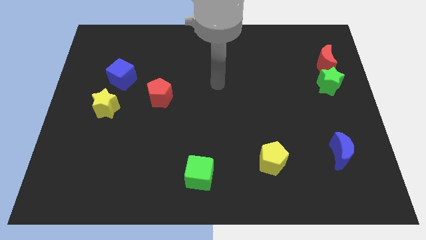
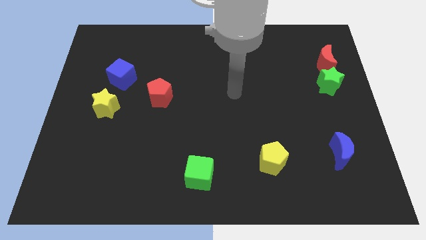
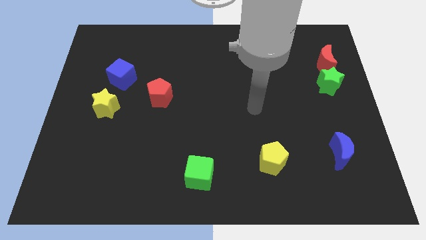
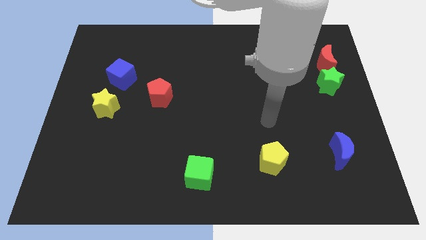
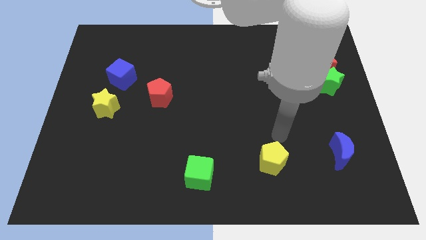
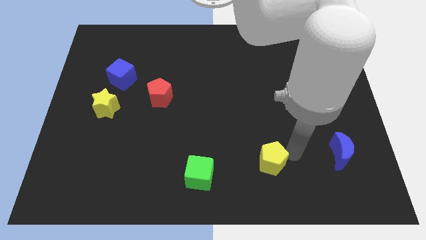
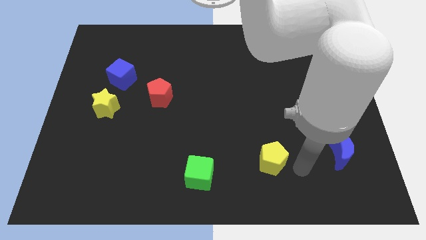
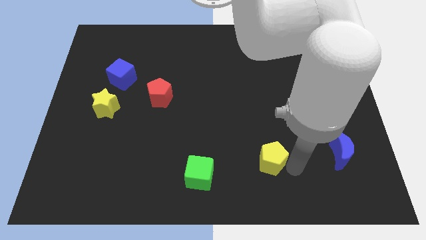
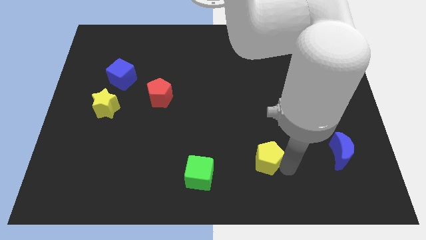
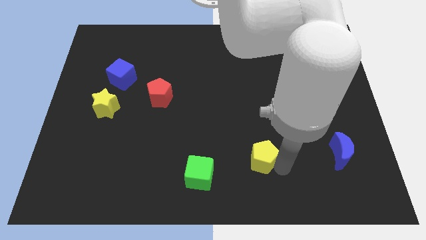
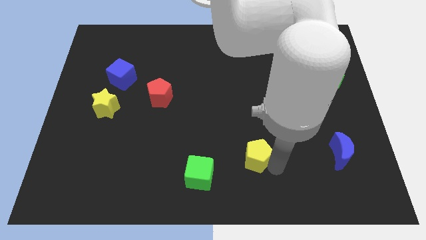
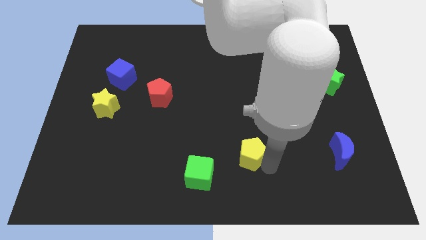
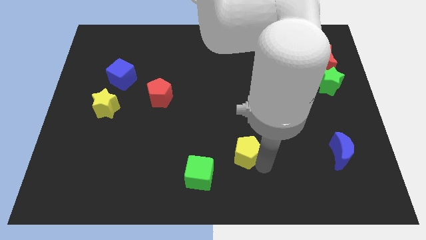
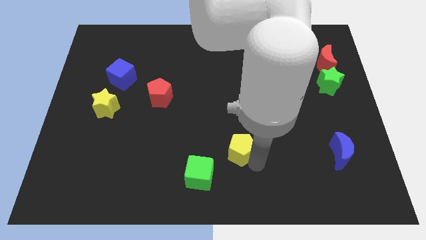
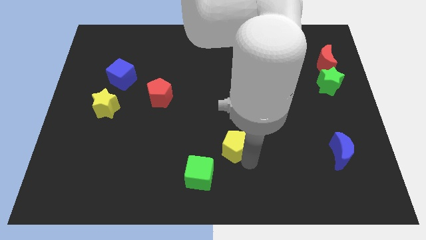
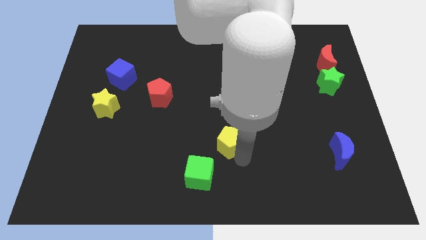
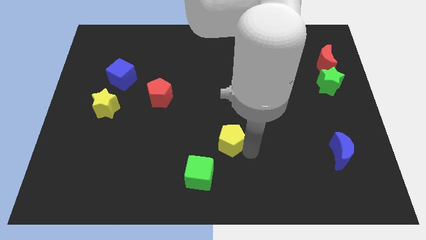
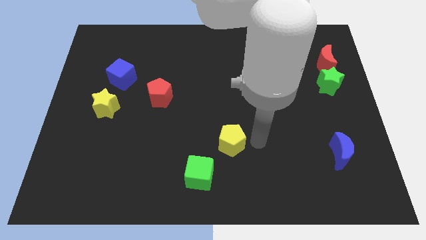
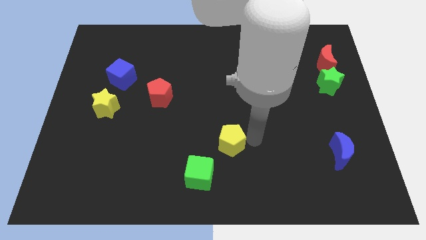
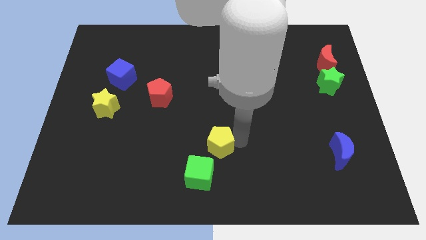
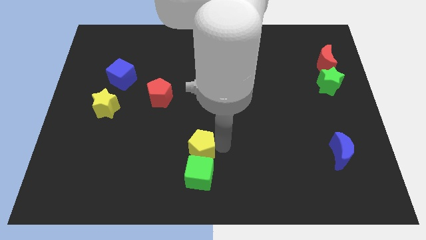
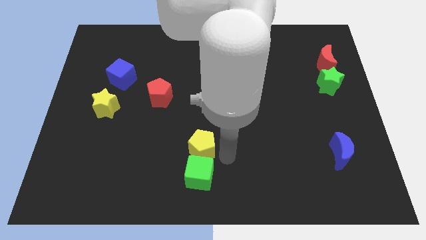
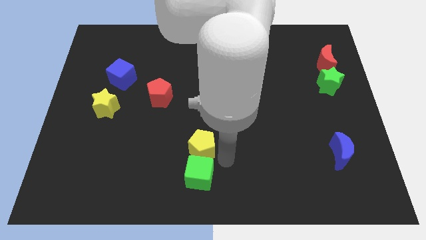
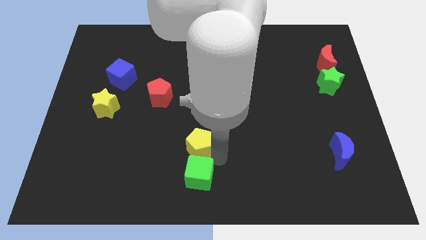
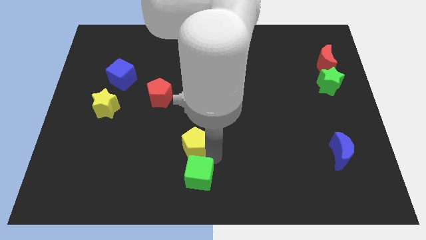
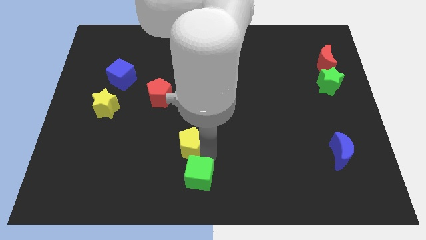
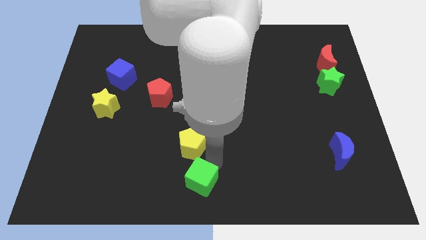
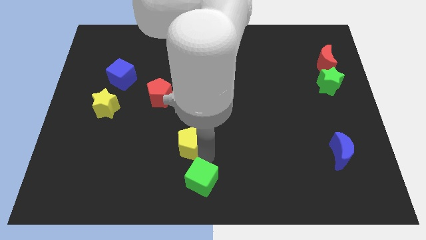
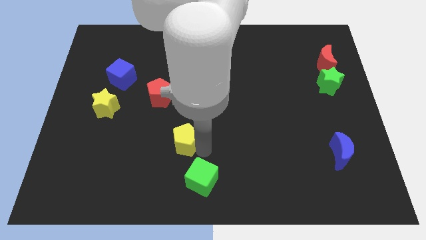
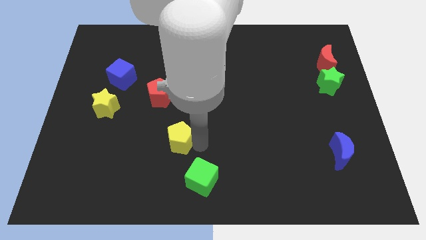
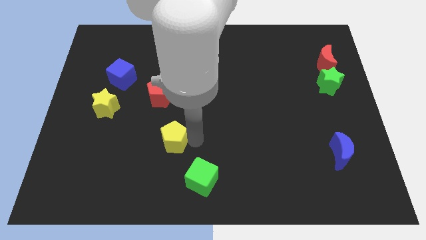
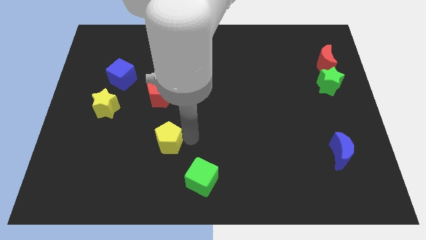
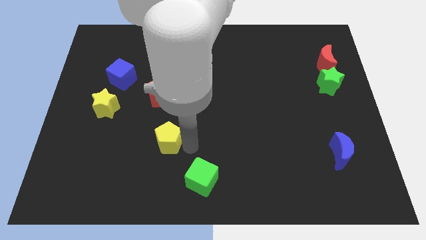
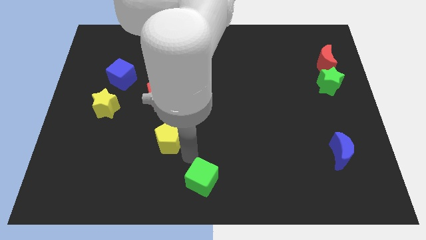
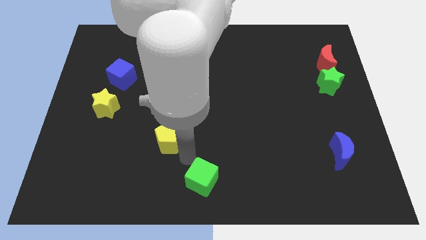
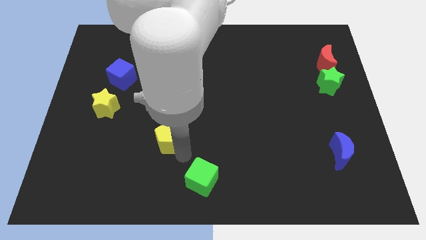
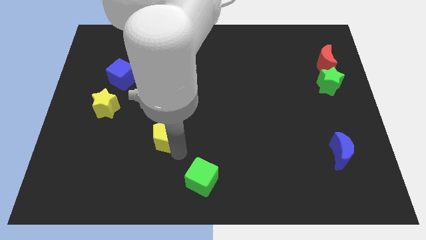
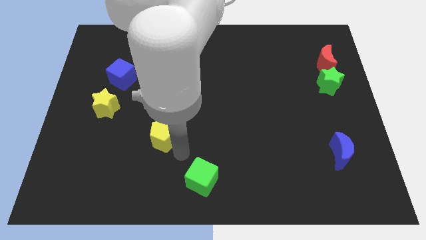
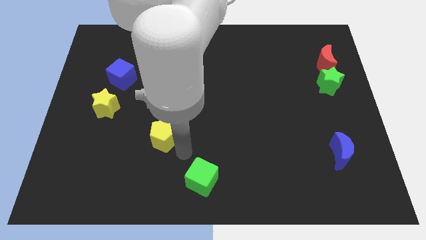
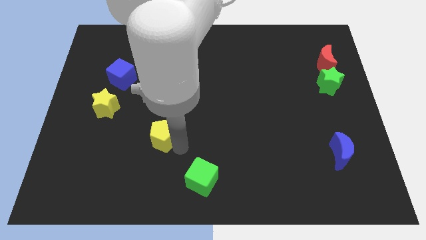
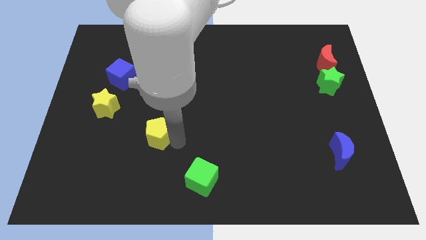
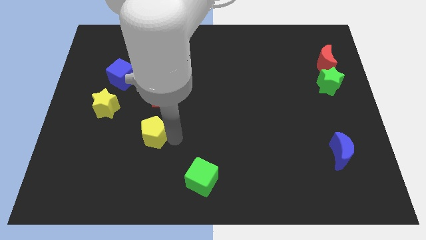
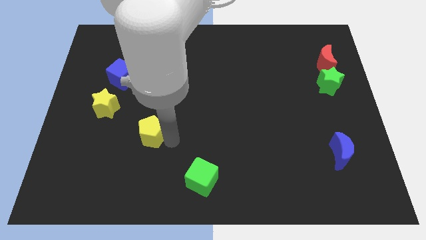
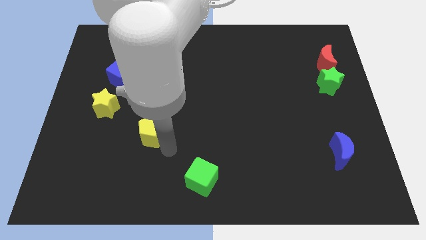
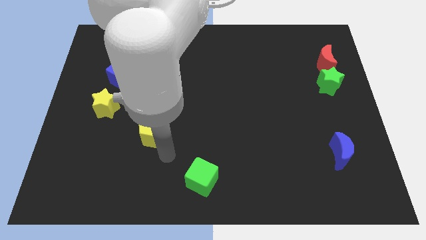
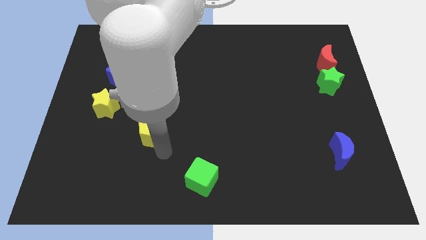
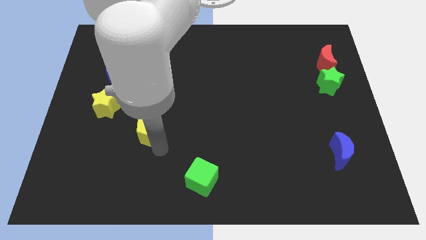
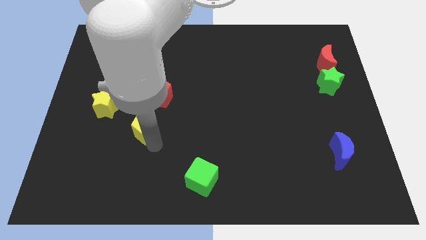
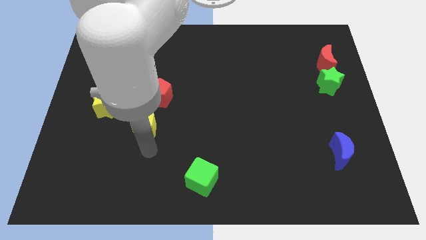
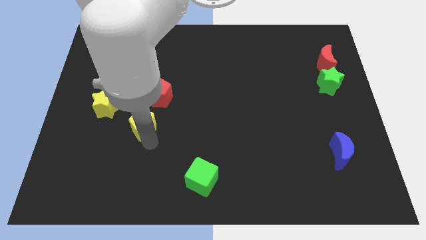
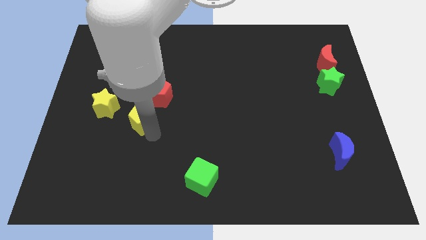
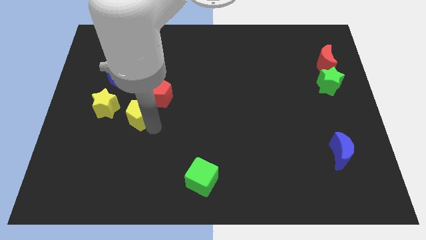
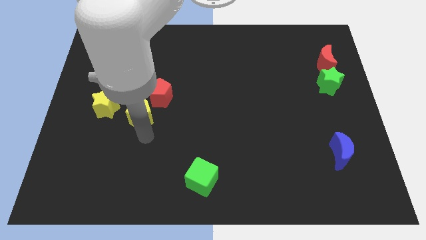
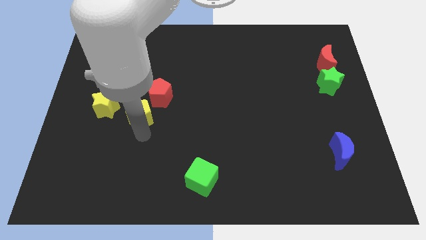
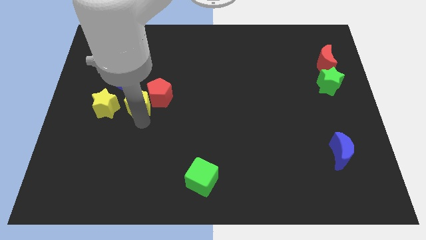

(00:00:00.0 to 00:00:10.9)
push the yellow pentagon diagonally down and to the right of the blue cube

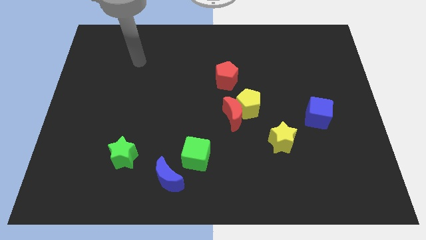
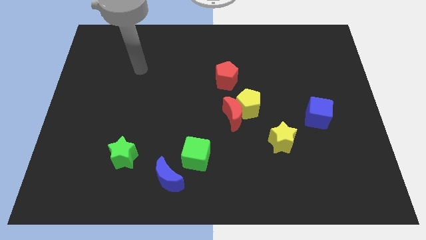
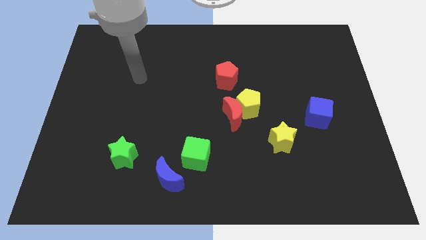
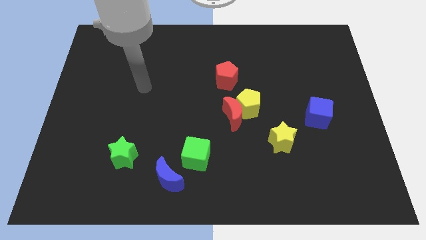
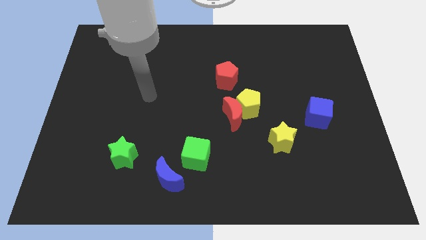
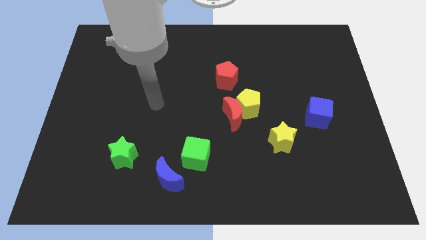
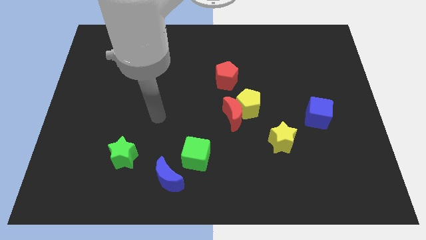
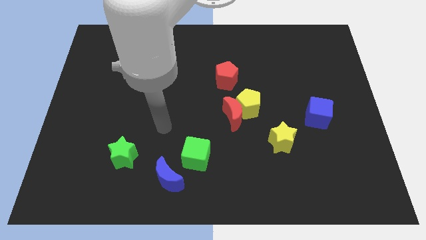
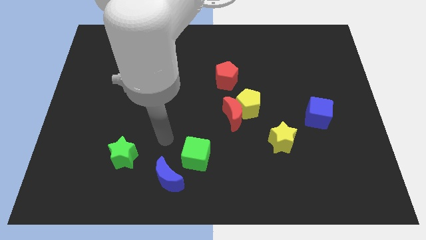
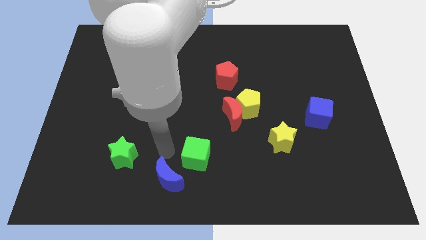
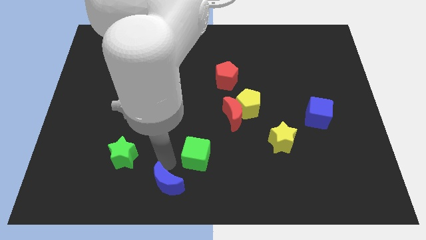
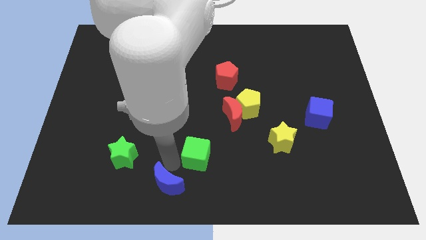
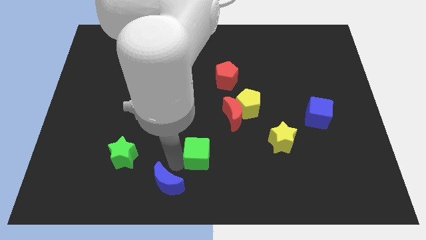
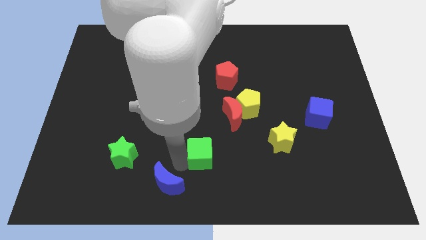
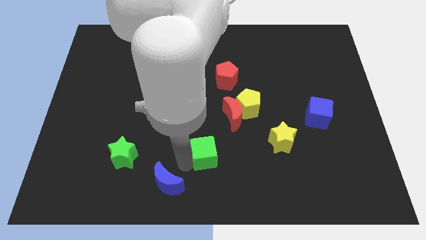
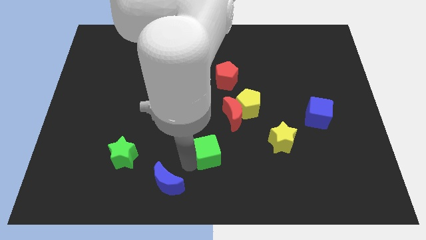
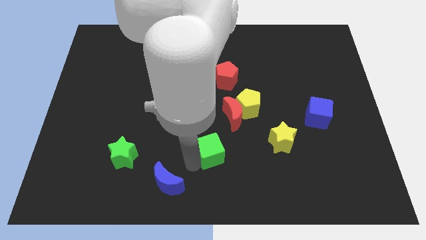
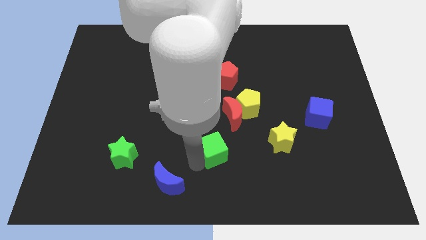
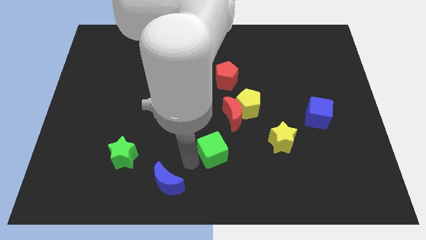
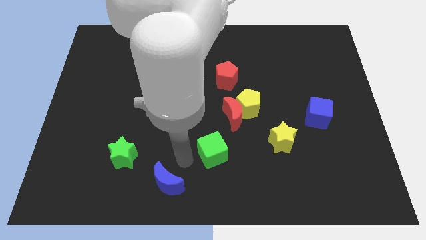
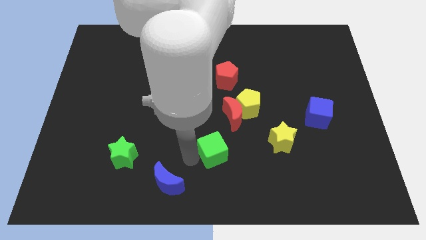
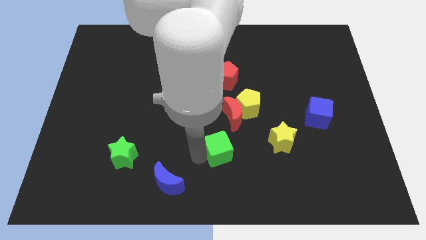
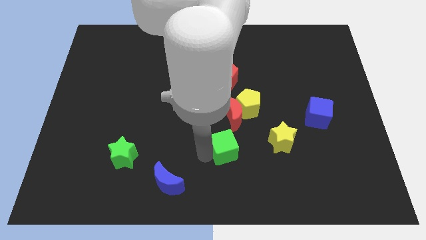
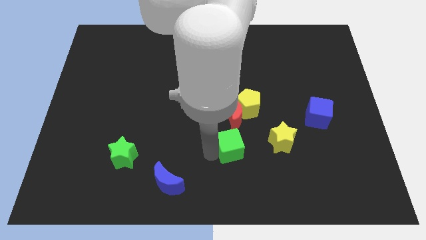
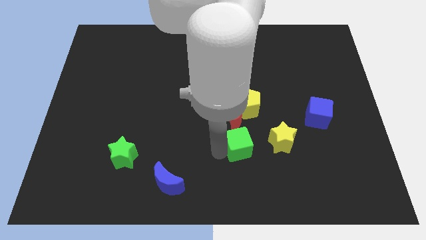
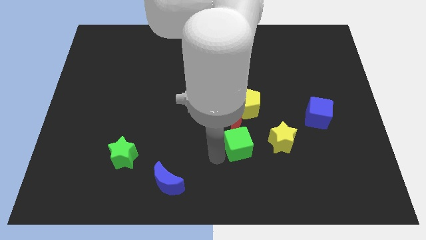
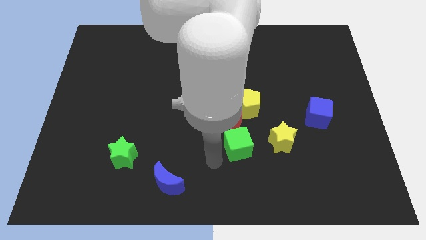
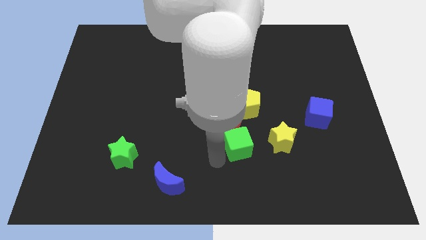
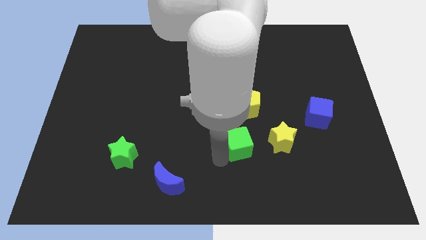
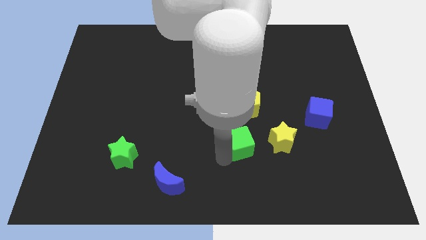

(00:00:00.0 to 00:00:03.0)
slide the green cube to the bottom right of the red moon
